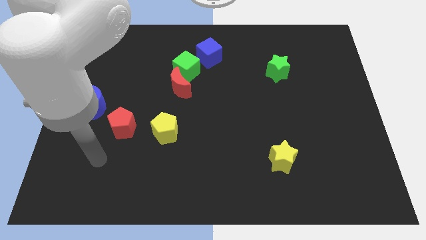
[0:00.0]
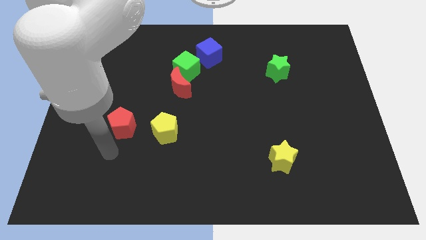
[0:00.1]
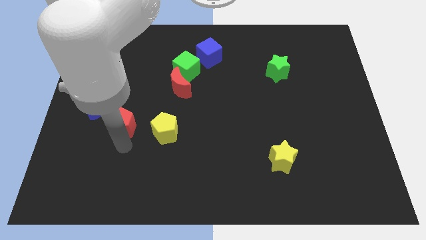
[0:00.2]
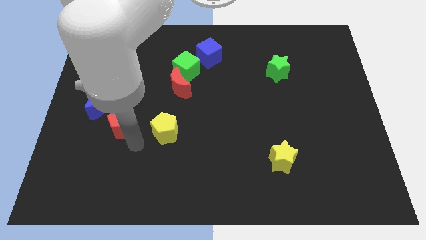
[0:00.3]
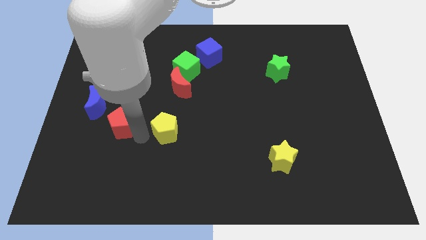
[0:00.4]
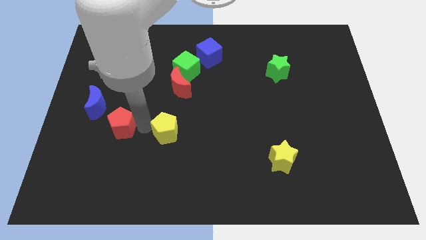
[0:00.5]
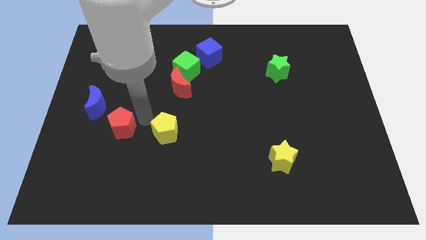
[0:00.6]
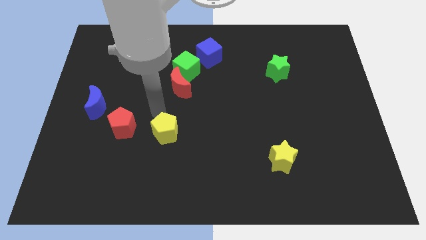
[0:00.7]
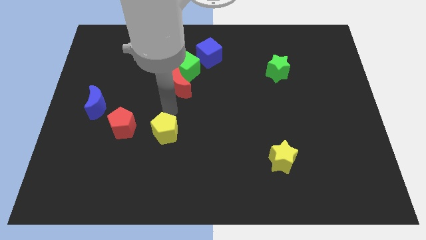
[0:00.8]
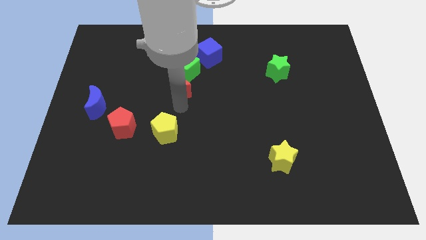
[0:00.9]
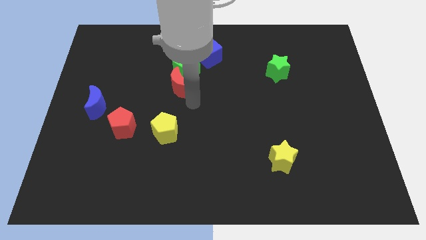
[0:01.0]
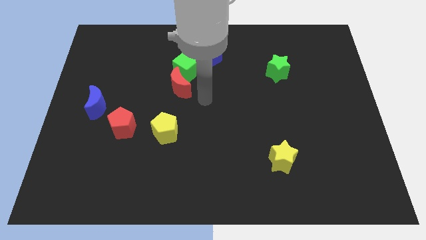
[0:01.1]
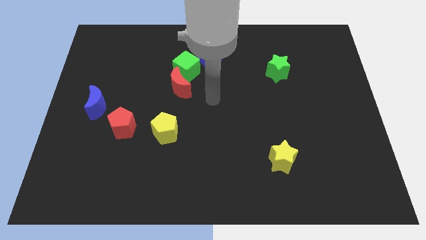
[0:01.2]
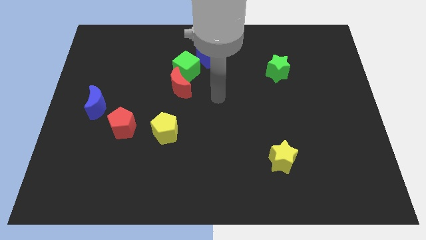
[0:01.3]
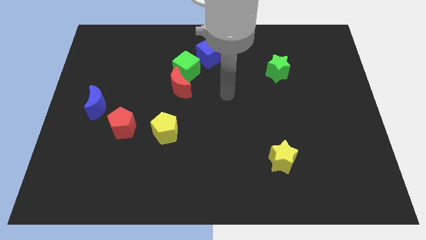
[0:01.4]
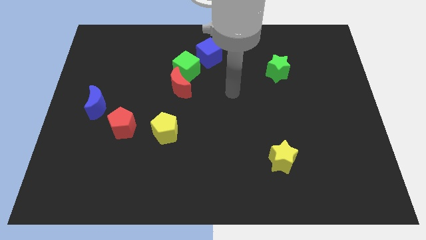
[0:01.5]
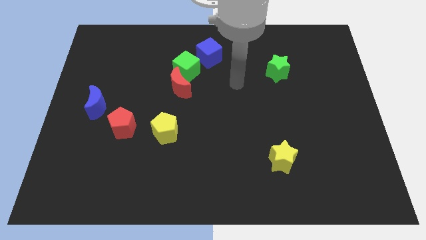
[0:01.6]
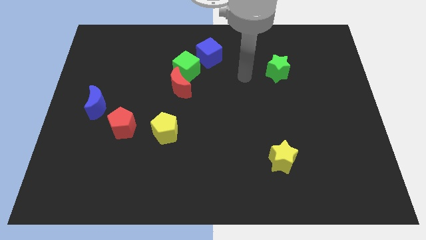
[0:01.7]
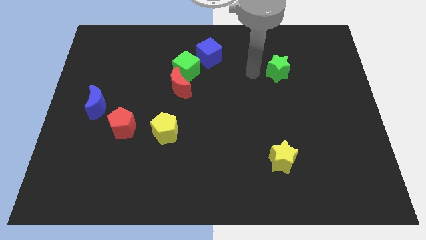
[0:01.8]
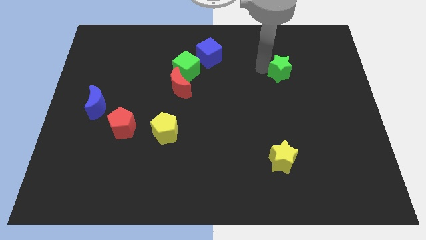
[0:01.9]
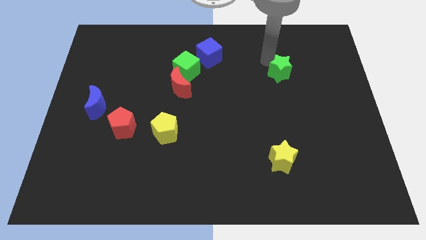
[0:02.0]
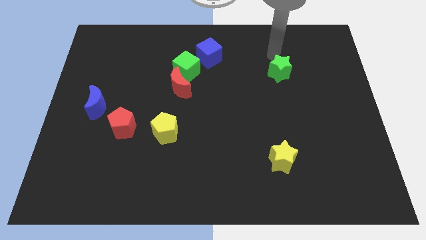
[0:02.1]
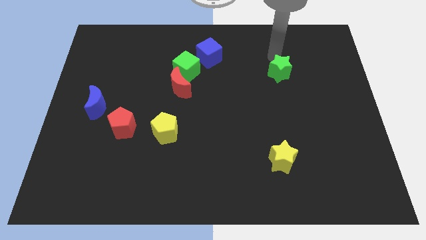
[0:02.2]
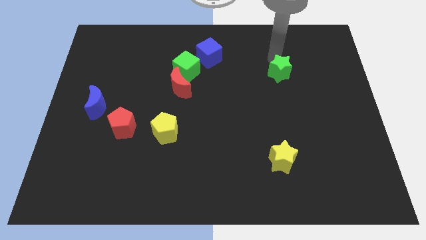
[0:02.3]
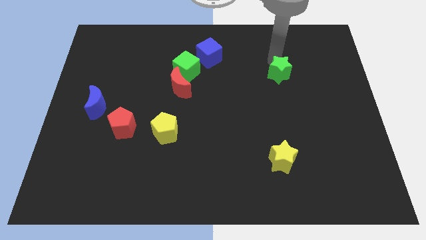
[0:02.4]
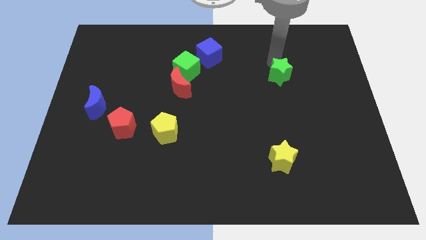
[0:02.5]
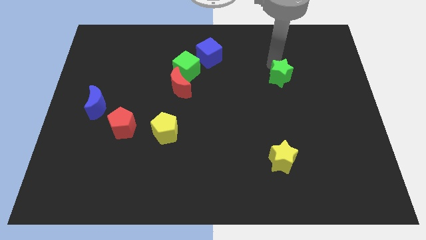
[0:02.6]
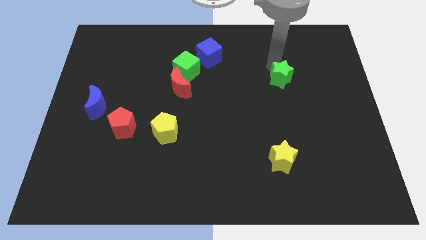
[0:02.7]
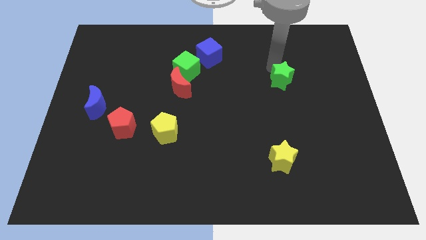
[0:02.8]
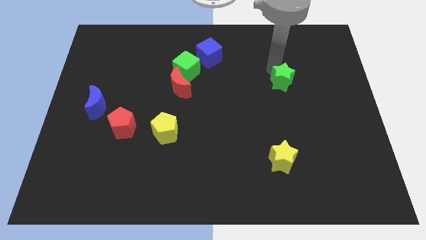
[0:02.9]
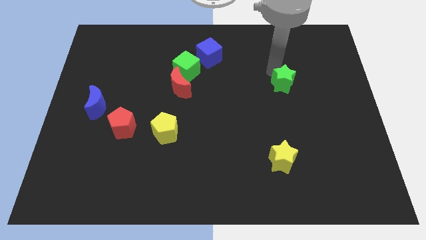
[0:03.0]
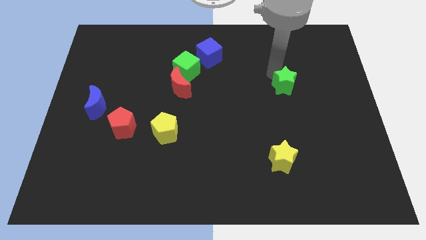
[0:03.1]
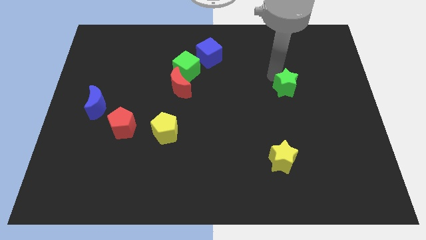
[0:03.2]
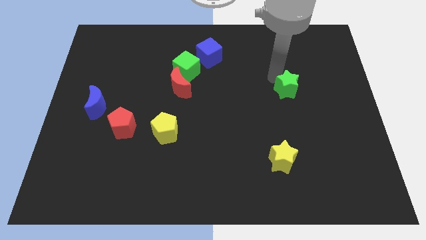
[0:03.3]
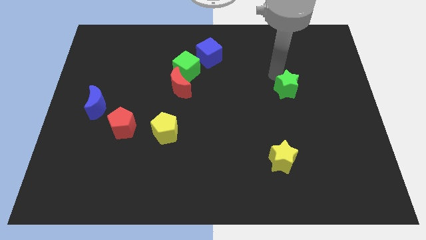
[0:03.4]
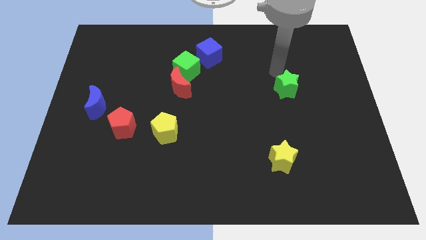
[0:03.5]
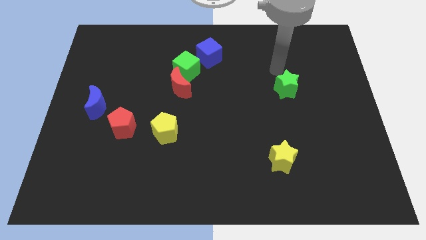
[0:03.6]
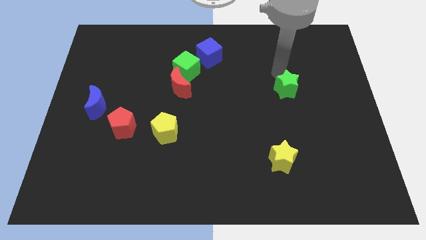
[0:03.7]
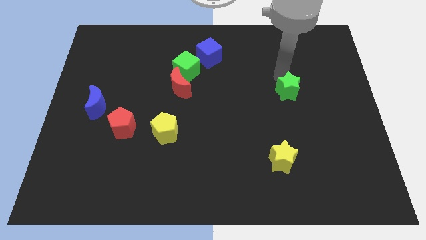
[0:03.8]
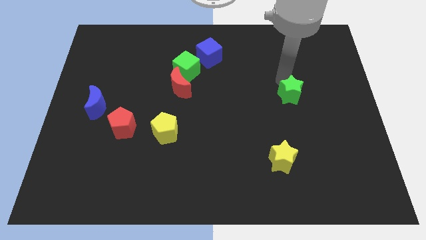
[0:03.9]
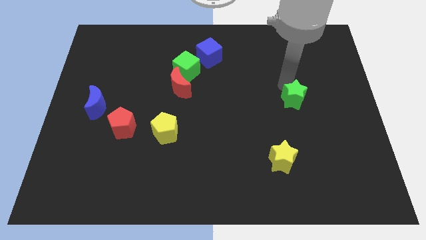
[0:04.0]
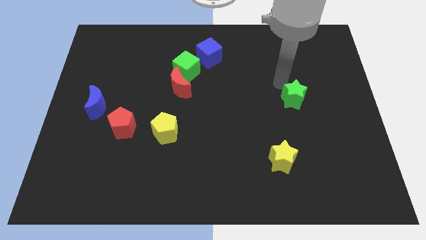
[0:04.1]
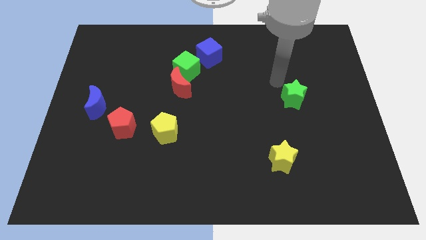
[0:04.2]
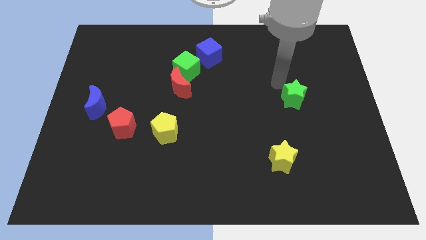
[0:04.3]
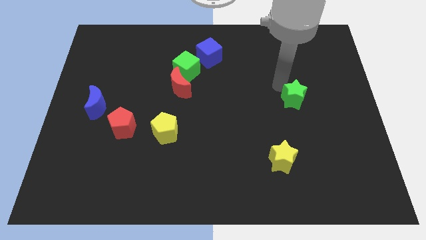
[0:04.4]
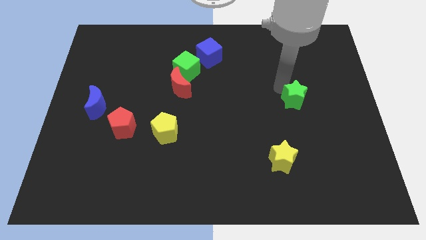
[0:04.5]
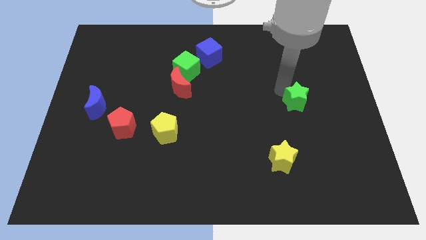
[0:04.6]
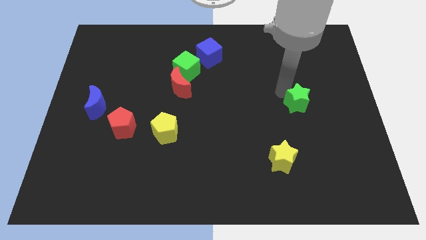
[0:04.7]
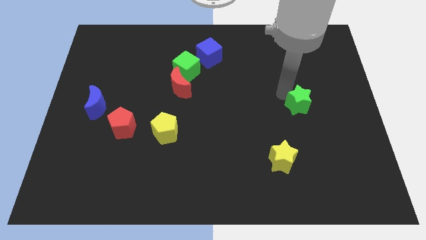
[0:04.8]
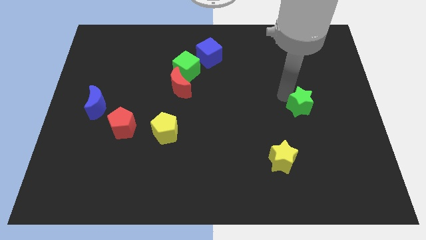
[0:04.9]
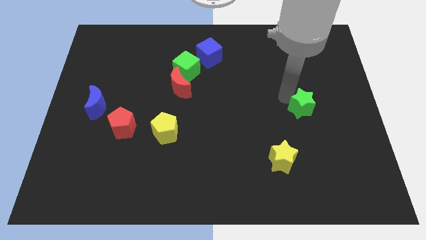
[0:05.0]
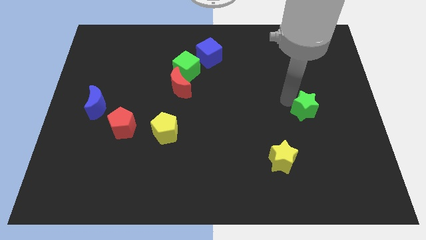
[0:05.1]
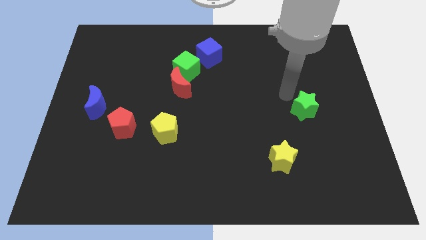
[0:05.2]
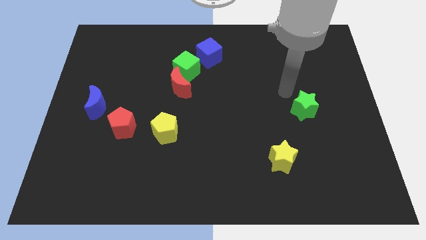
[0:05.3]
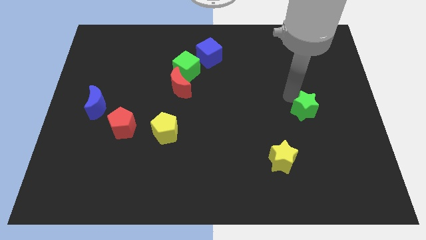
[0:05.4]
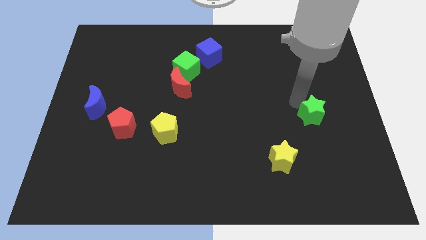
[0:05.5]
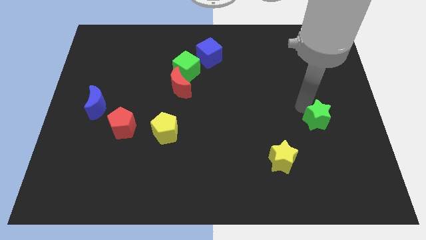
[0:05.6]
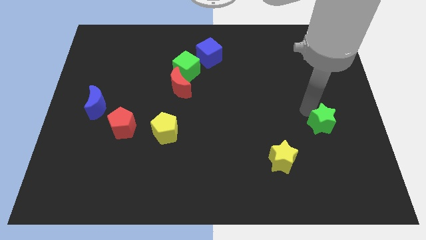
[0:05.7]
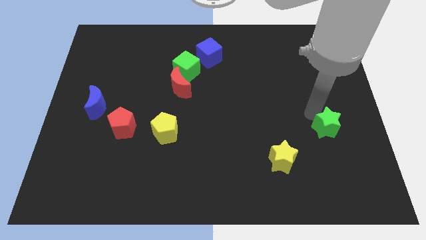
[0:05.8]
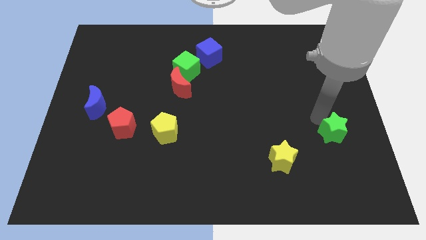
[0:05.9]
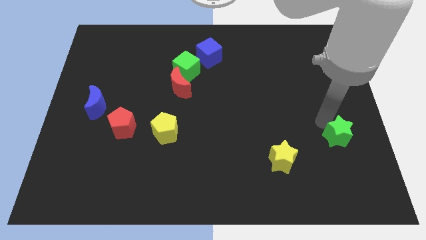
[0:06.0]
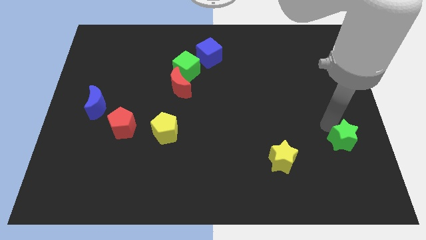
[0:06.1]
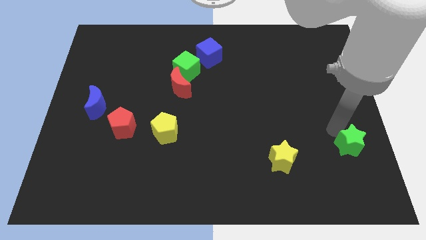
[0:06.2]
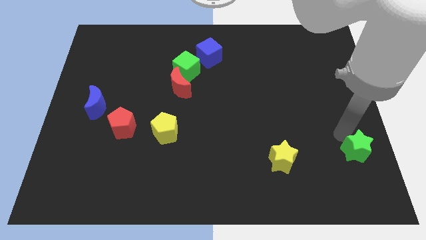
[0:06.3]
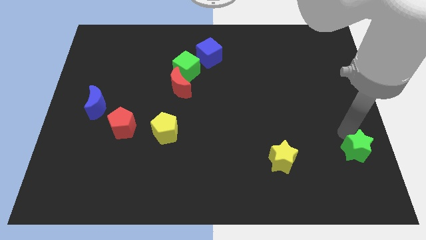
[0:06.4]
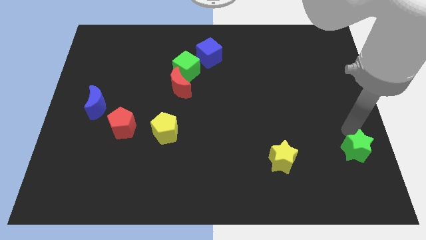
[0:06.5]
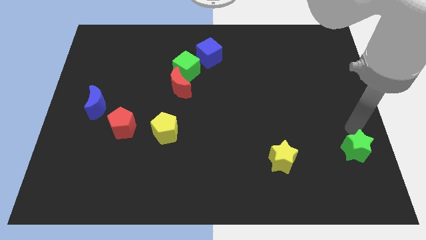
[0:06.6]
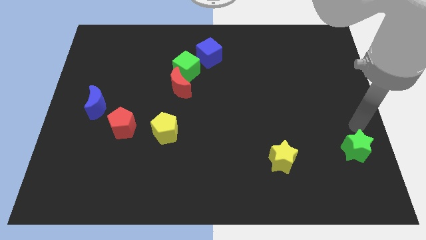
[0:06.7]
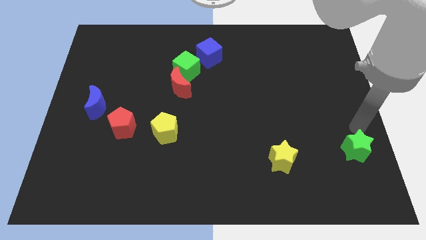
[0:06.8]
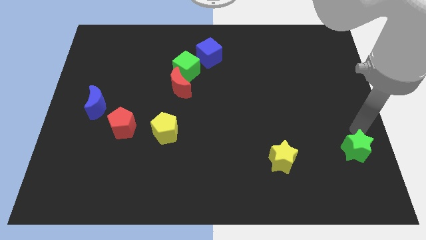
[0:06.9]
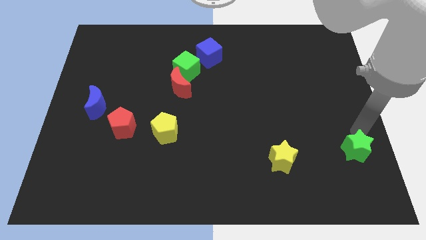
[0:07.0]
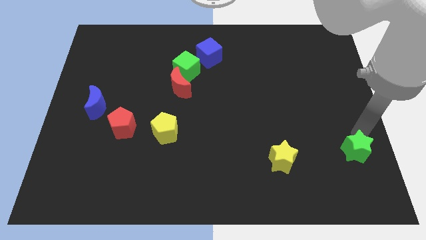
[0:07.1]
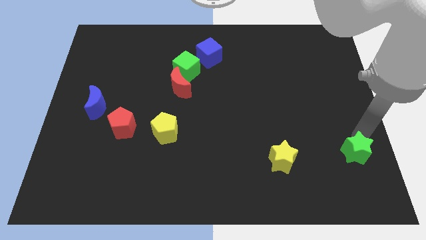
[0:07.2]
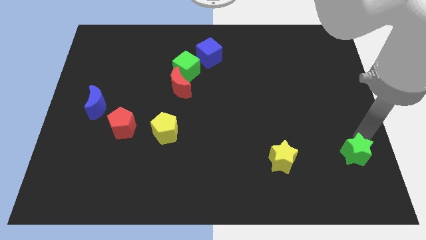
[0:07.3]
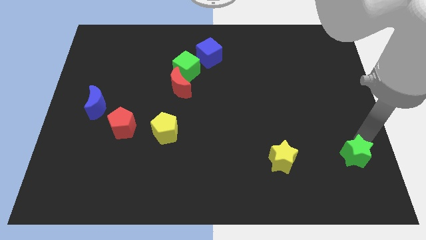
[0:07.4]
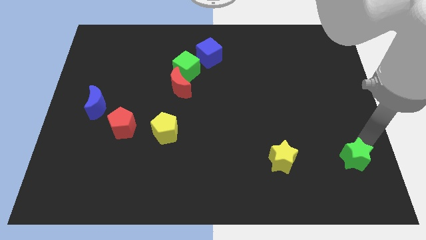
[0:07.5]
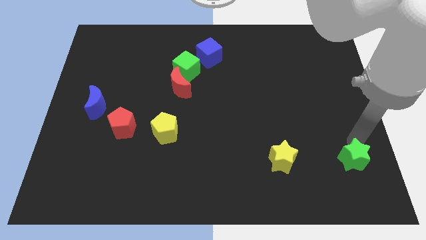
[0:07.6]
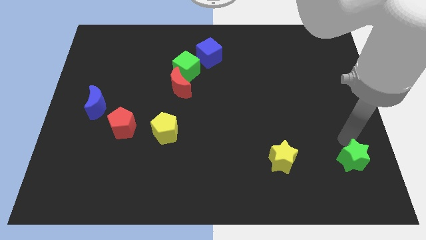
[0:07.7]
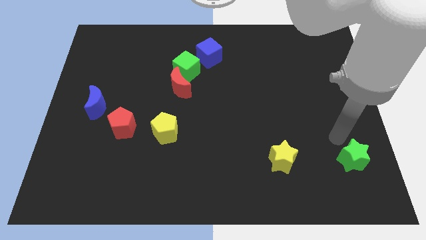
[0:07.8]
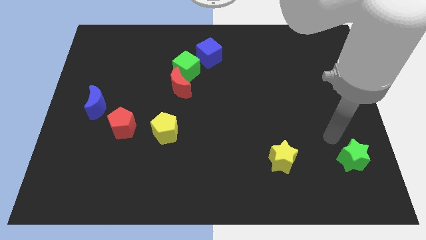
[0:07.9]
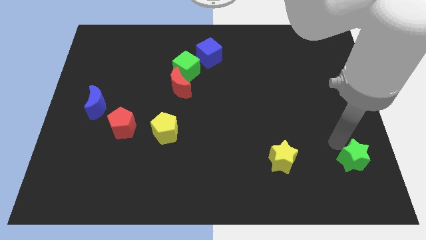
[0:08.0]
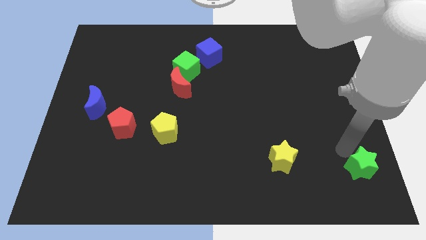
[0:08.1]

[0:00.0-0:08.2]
move the green star to the lower right corner
